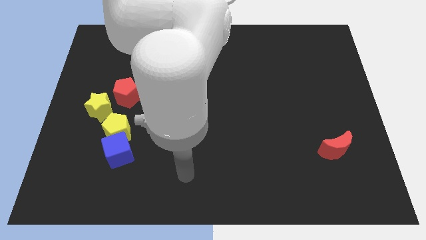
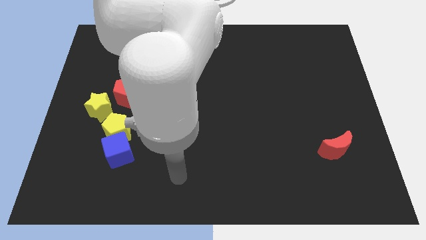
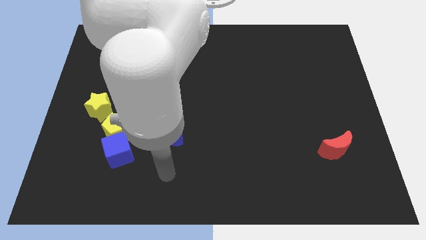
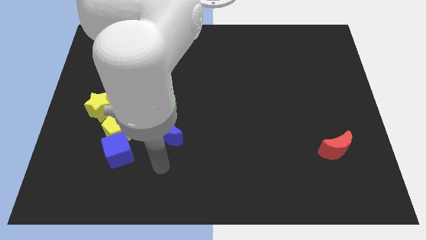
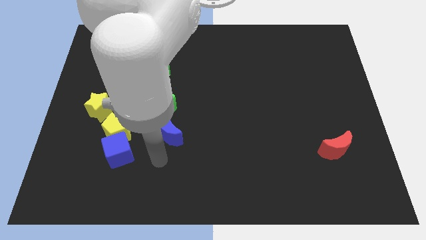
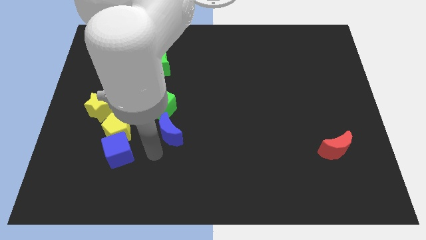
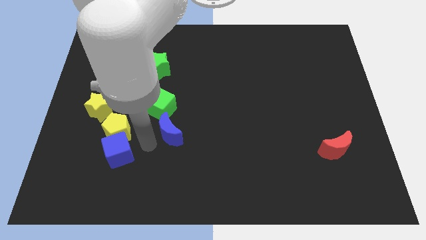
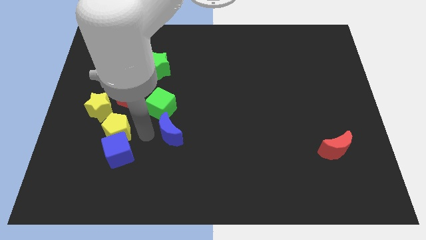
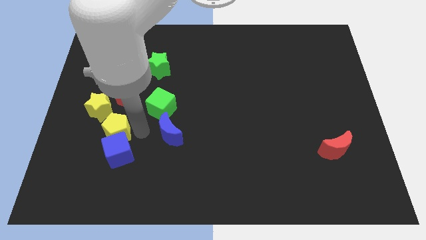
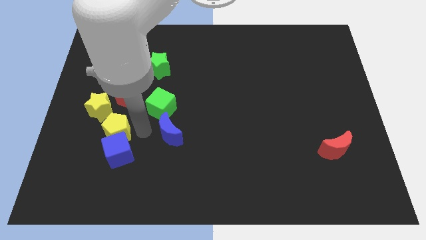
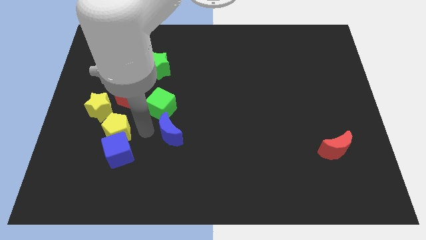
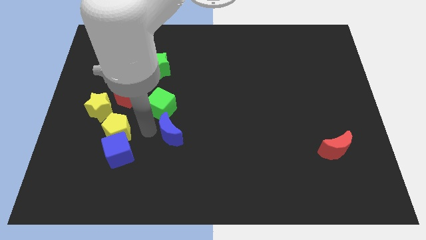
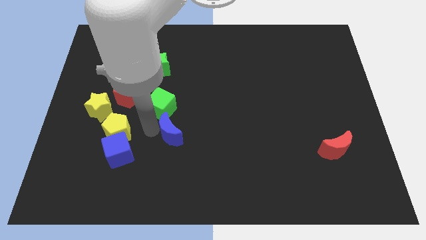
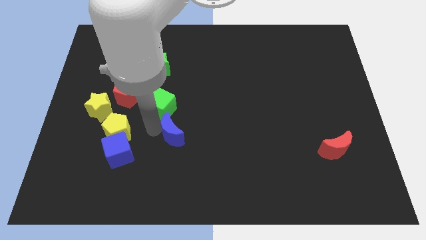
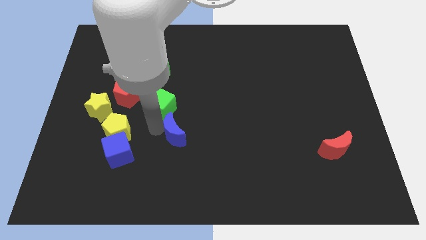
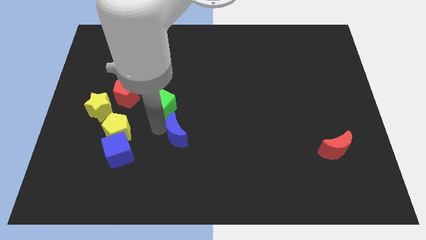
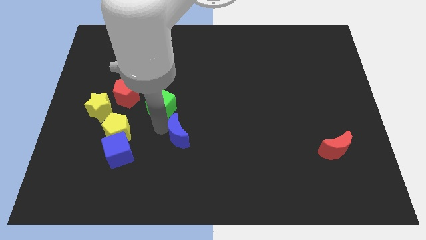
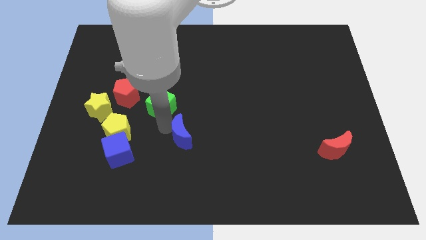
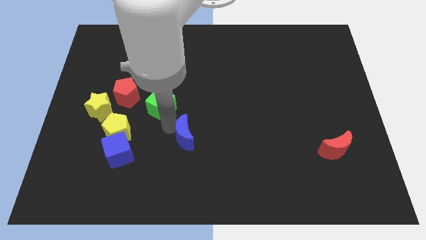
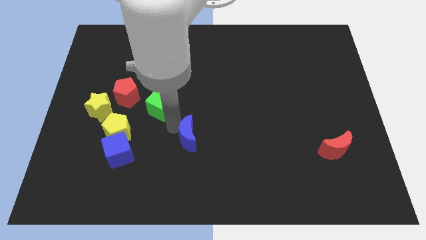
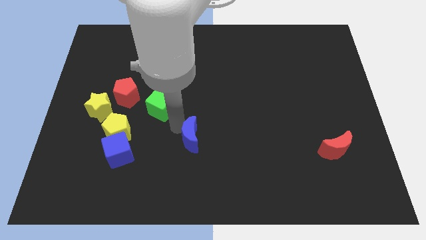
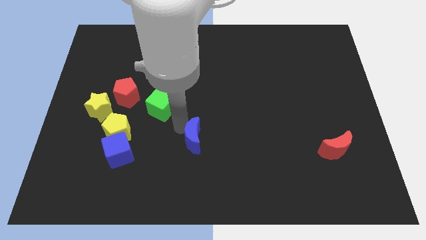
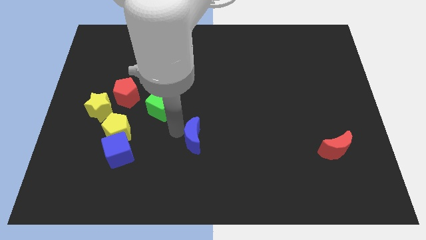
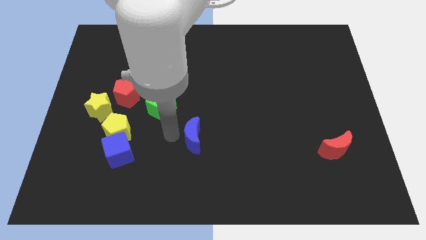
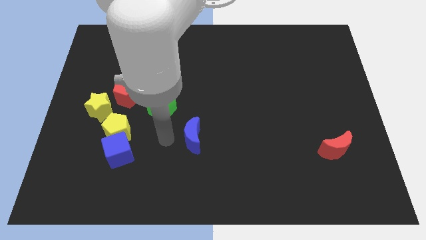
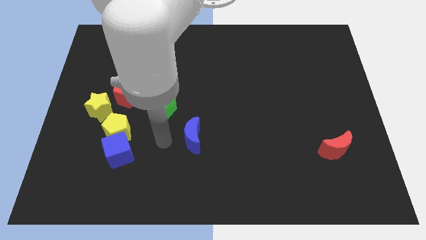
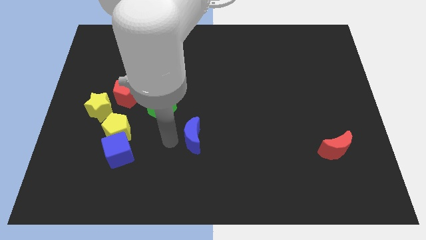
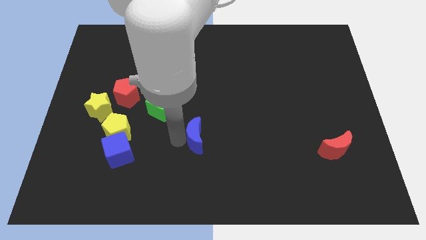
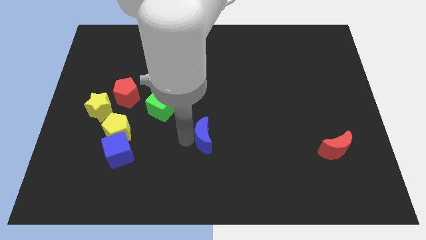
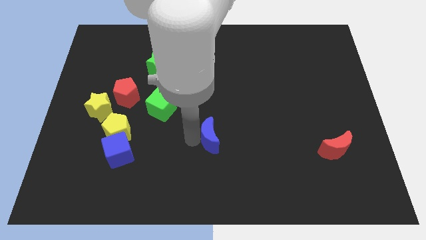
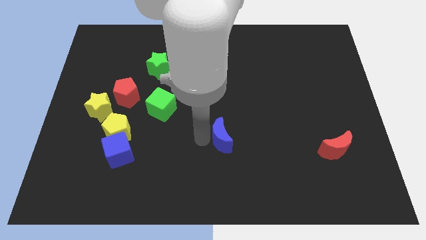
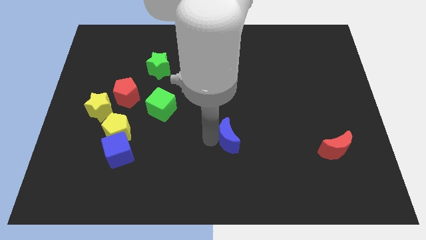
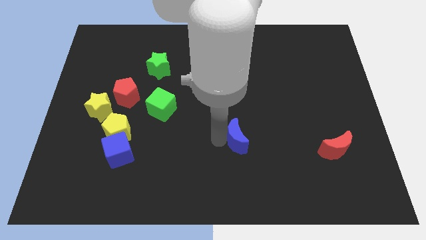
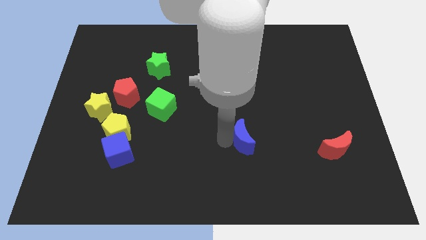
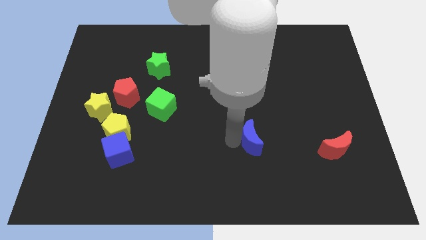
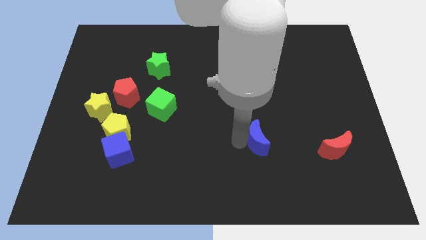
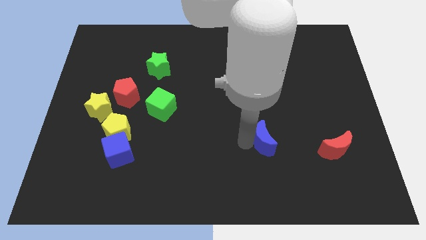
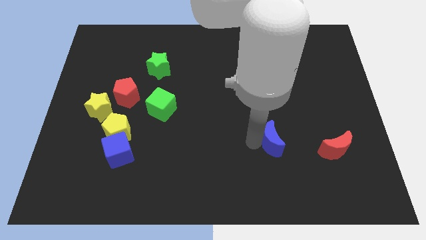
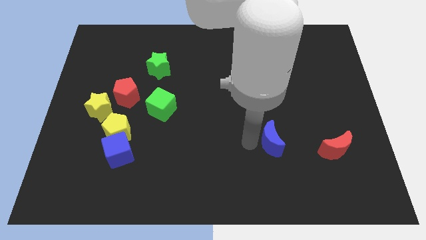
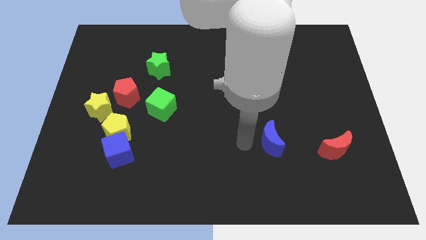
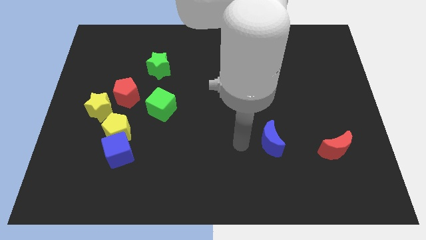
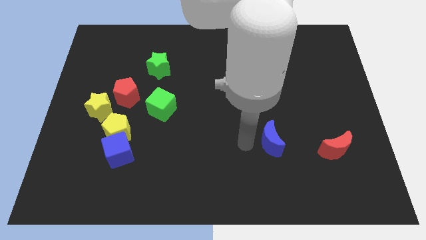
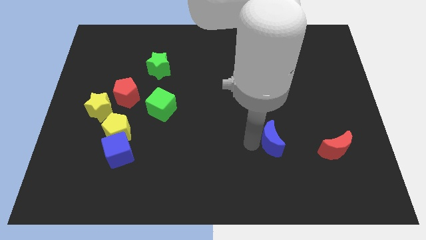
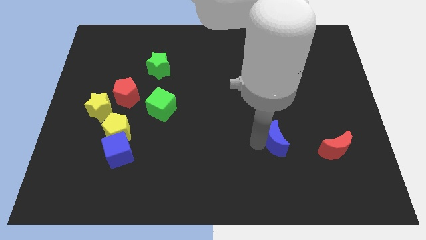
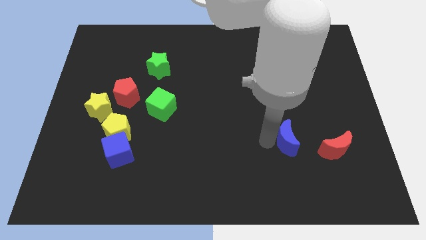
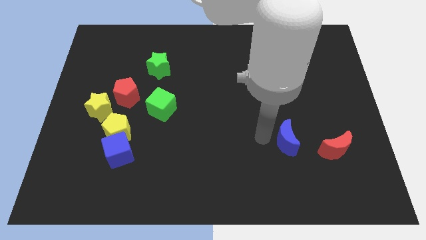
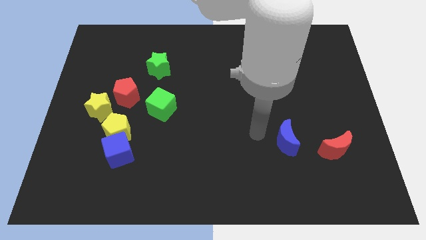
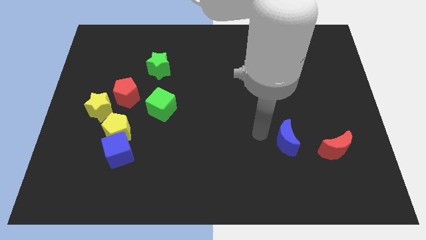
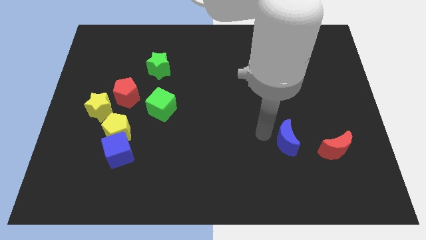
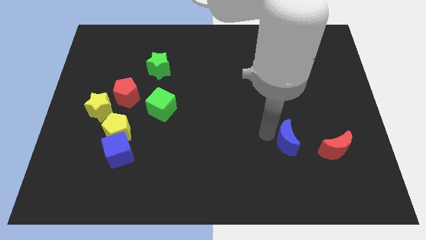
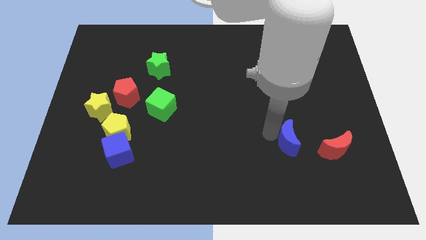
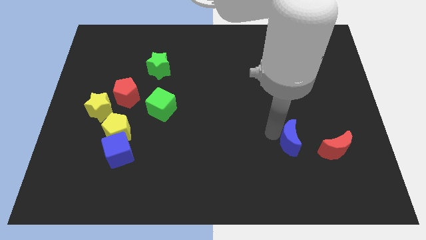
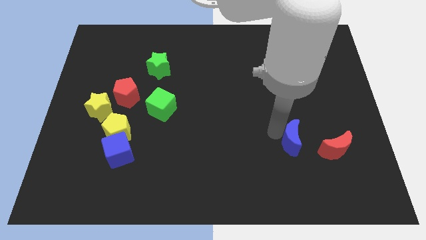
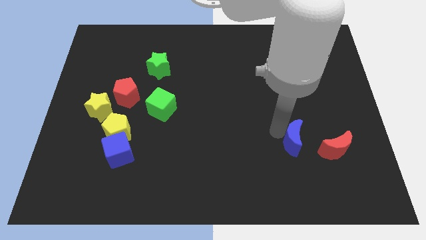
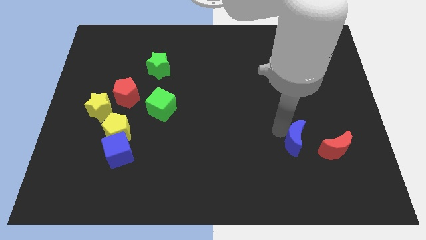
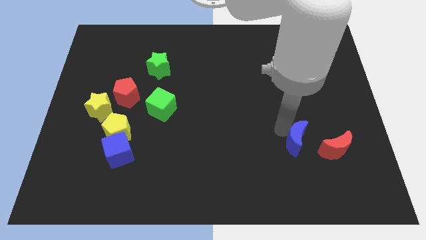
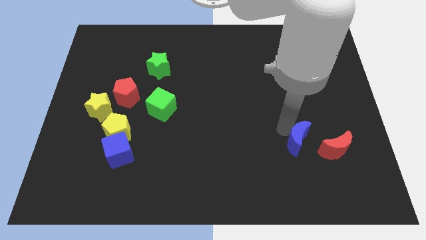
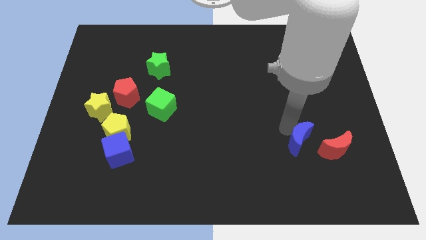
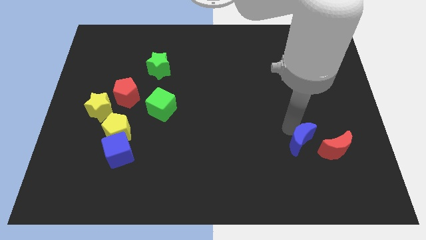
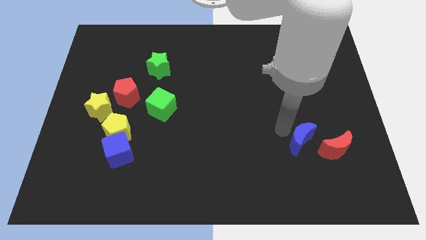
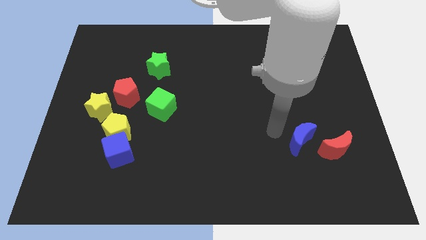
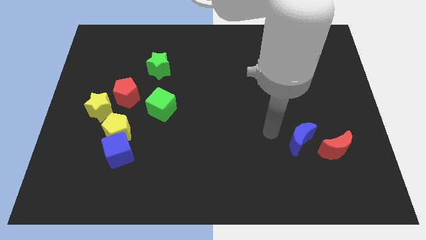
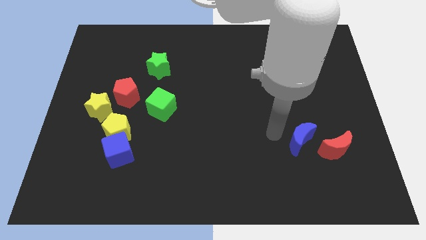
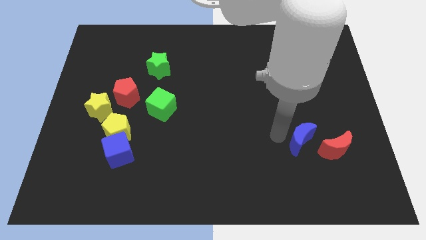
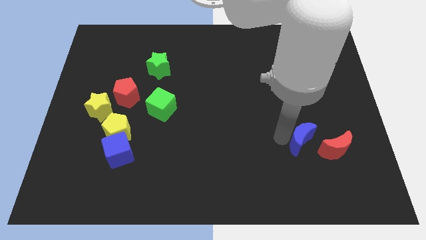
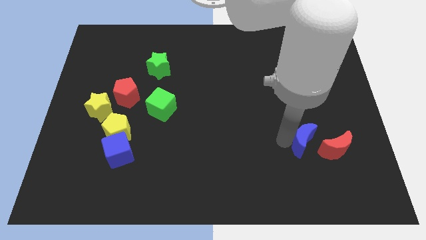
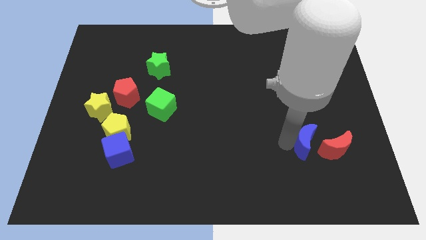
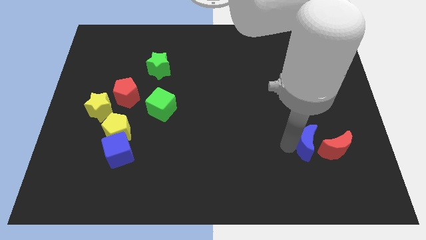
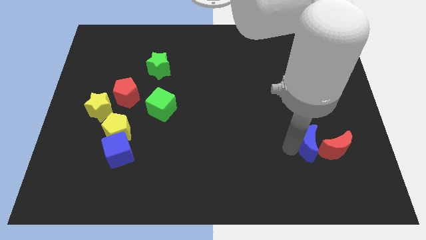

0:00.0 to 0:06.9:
put the blue moon close to the red moon

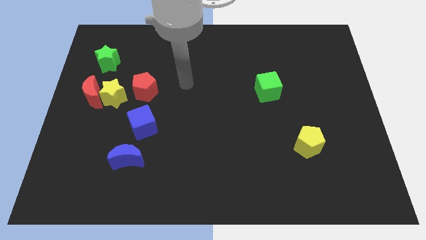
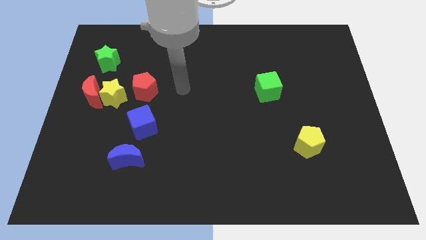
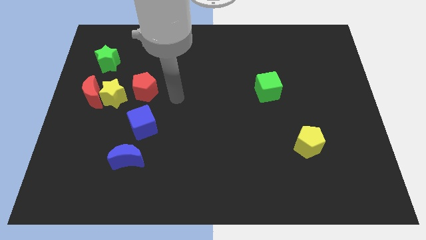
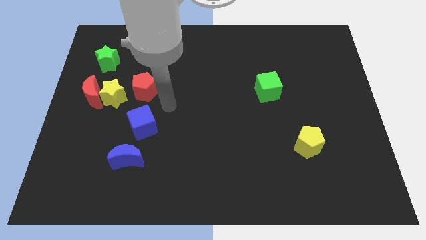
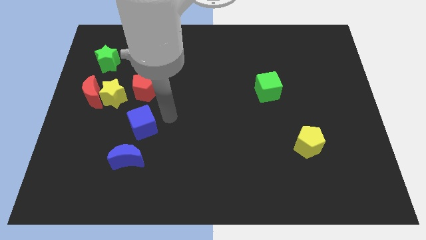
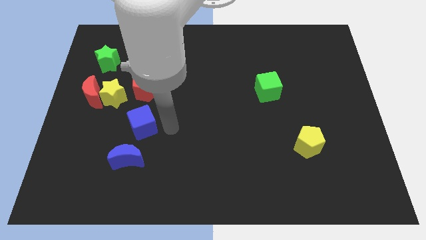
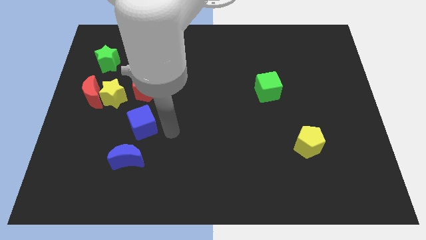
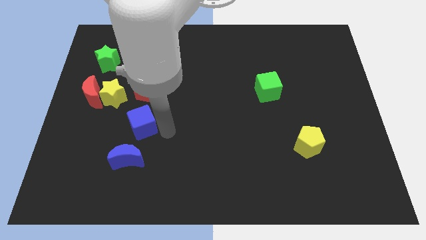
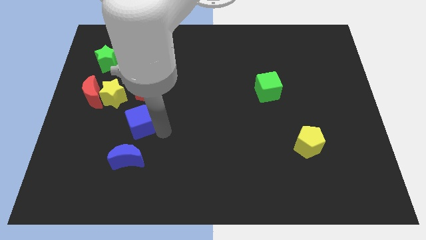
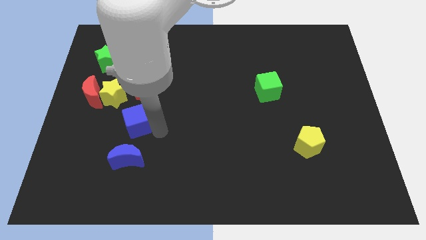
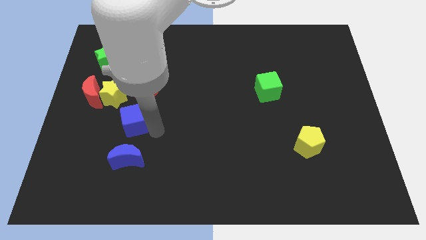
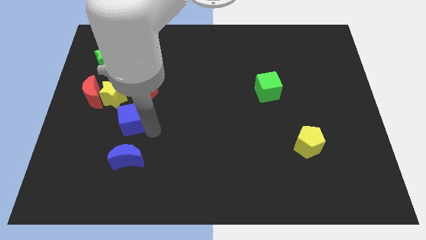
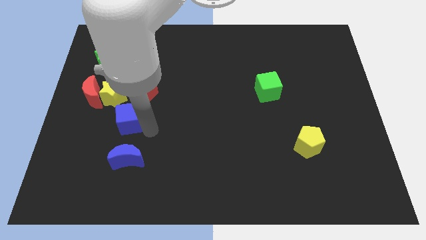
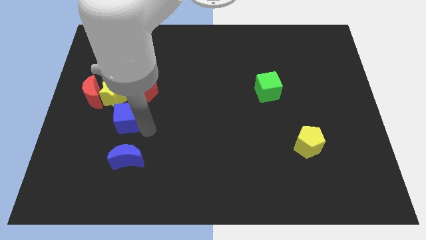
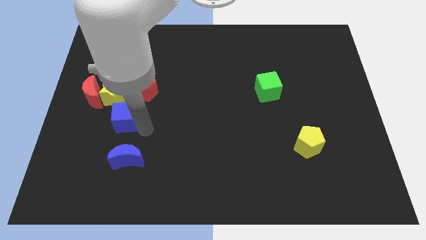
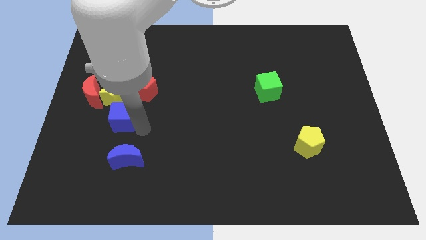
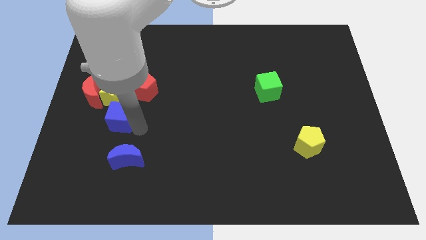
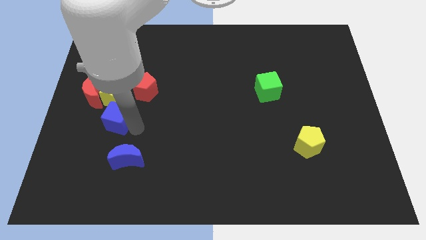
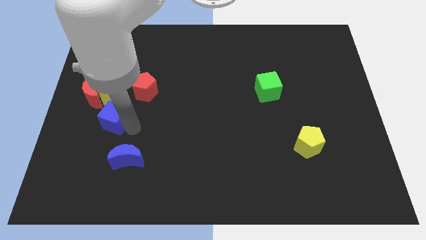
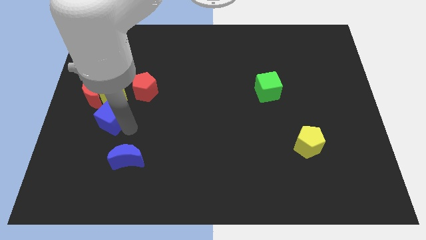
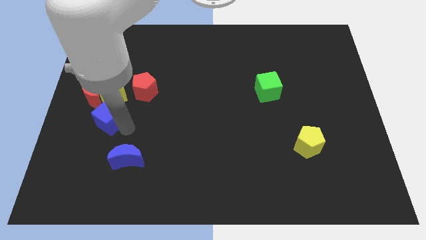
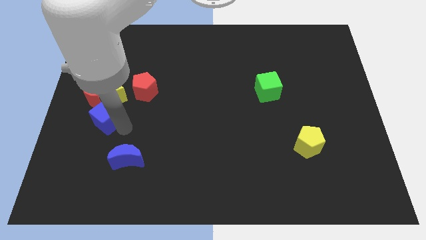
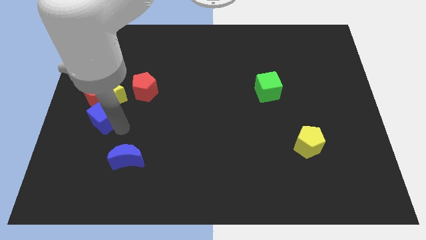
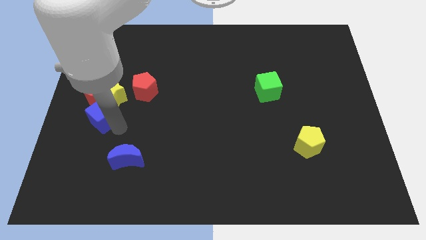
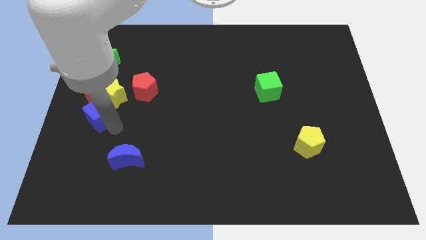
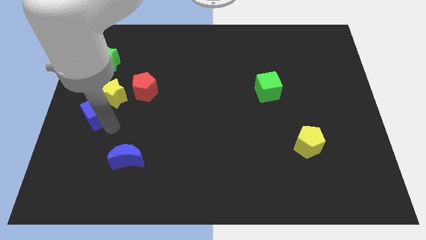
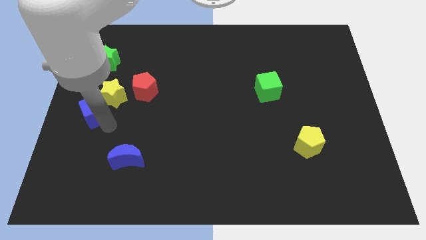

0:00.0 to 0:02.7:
move the blue cube towards the red moon
